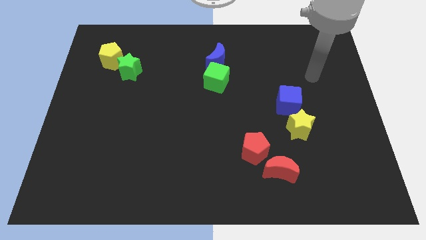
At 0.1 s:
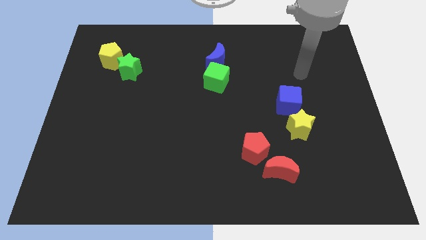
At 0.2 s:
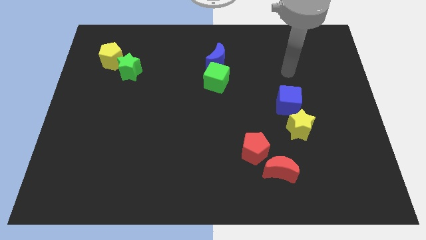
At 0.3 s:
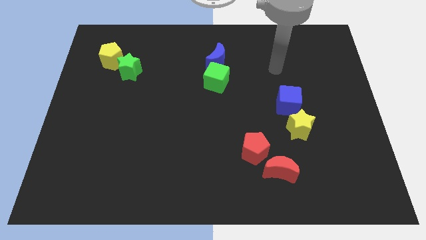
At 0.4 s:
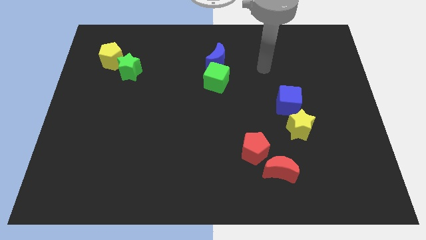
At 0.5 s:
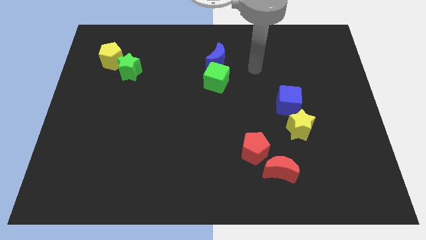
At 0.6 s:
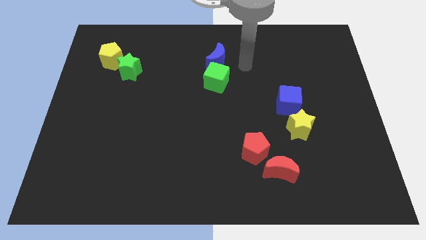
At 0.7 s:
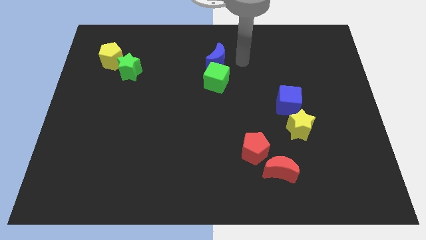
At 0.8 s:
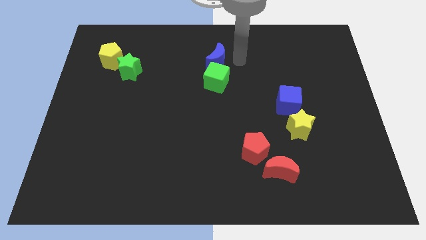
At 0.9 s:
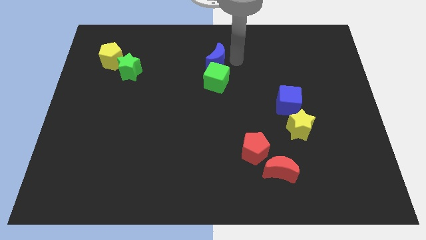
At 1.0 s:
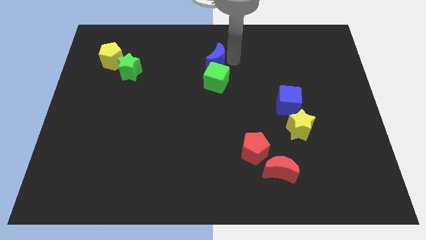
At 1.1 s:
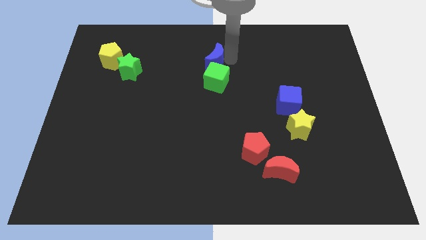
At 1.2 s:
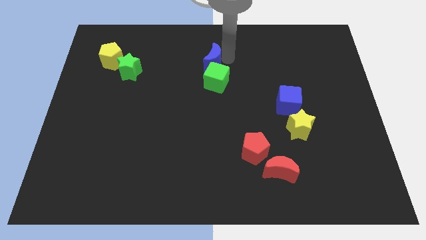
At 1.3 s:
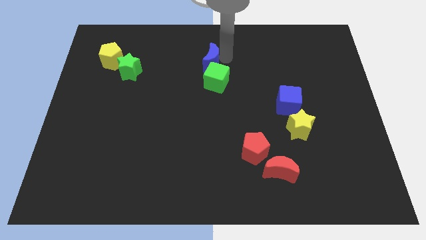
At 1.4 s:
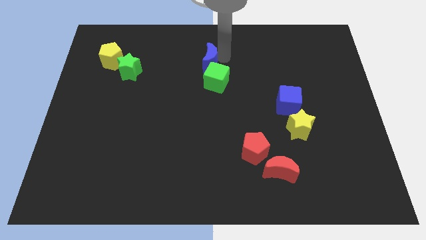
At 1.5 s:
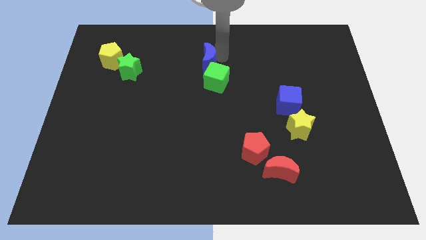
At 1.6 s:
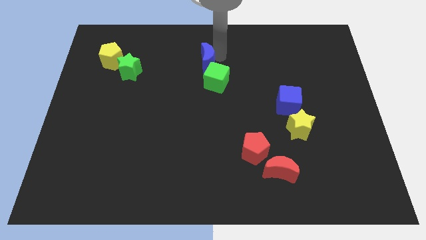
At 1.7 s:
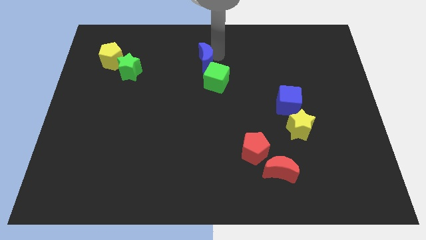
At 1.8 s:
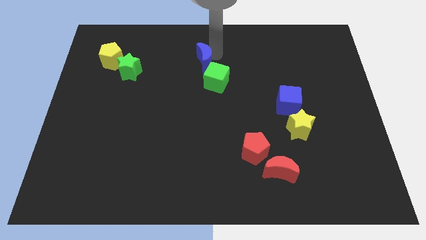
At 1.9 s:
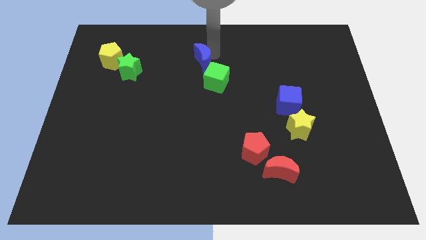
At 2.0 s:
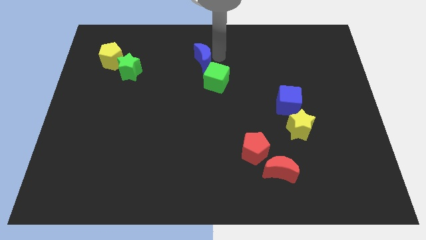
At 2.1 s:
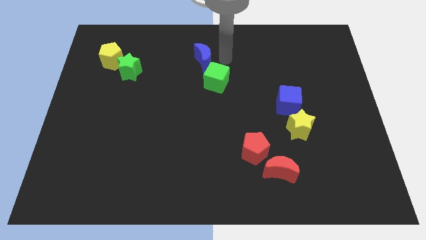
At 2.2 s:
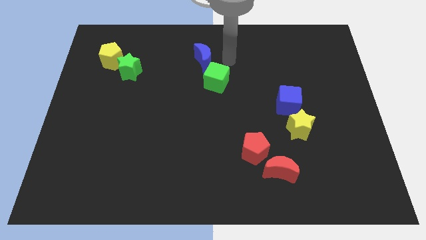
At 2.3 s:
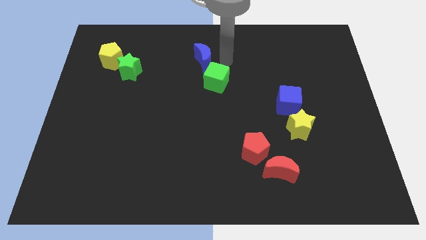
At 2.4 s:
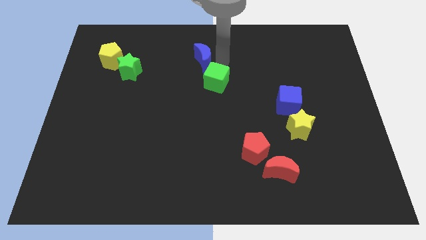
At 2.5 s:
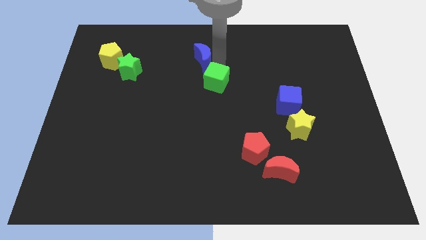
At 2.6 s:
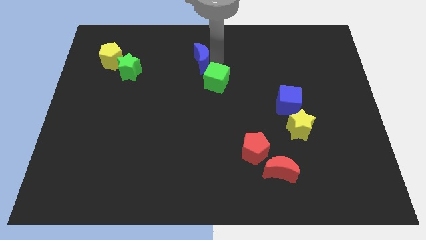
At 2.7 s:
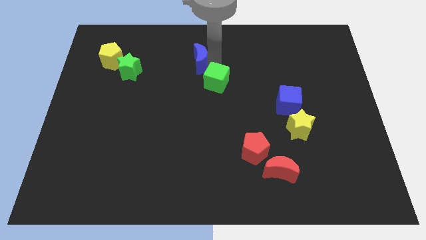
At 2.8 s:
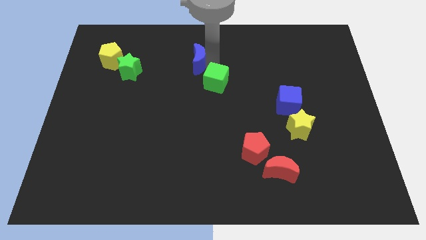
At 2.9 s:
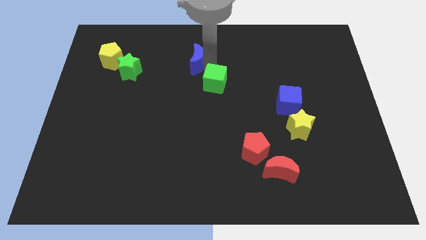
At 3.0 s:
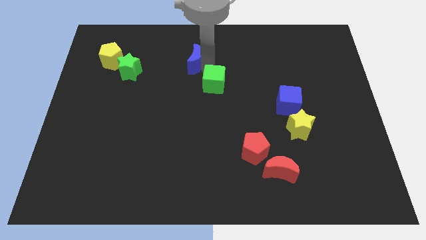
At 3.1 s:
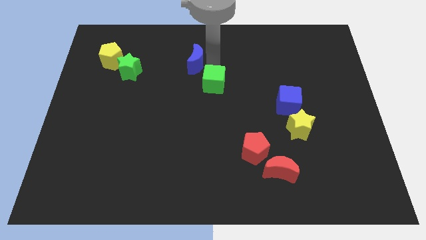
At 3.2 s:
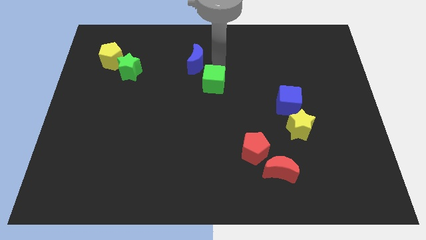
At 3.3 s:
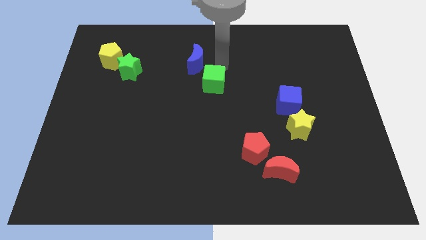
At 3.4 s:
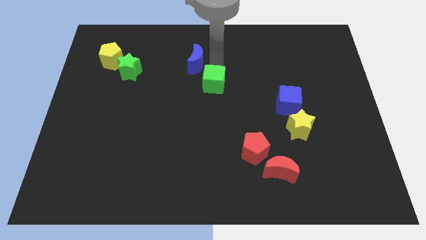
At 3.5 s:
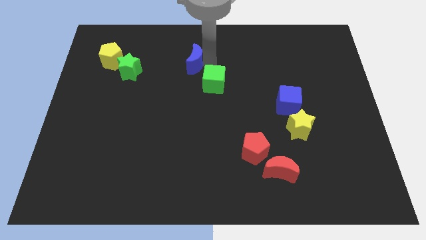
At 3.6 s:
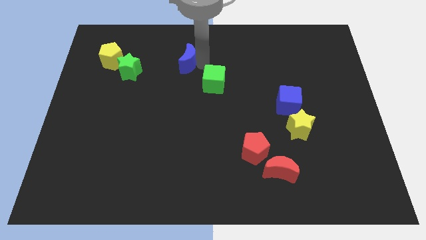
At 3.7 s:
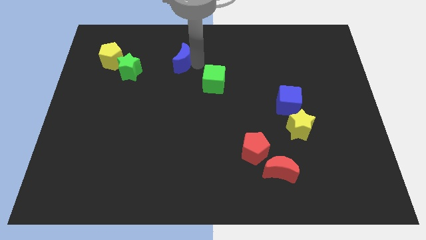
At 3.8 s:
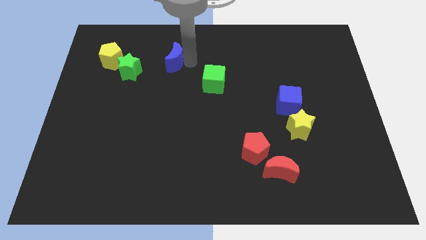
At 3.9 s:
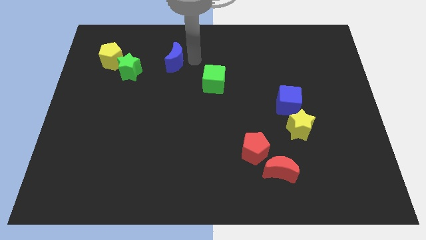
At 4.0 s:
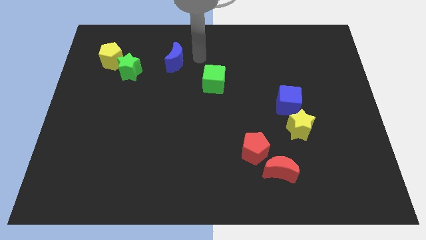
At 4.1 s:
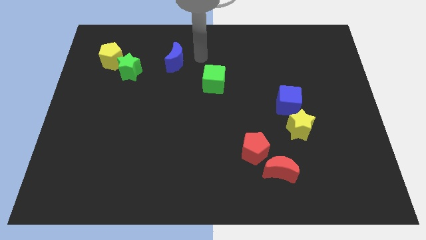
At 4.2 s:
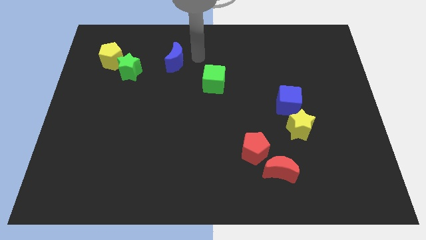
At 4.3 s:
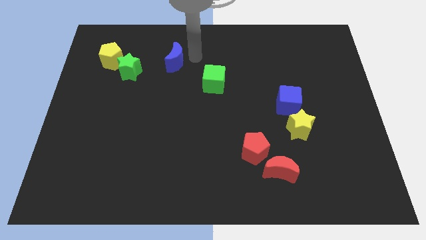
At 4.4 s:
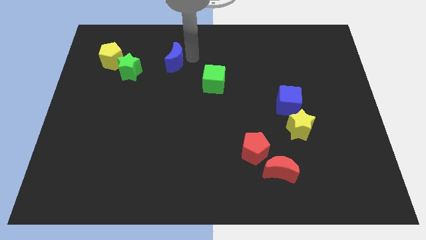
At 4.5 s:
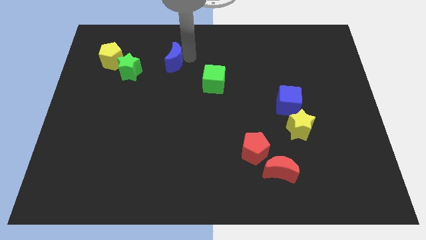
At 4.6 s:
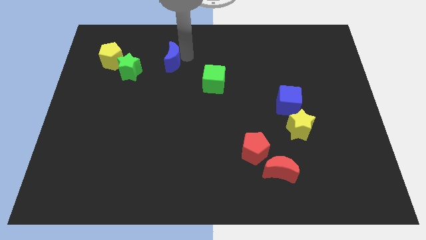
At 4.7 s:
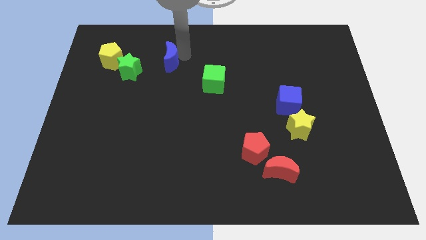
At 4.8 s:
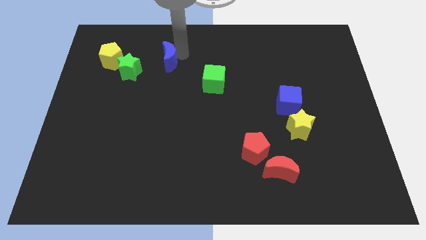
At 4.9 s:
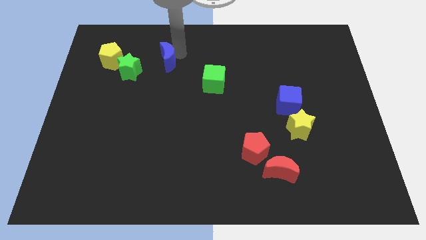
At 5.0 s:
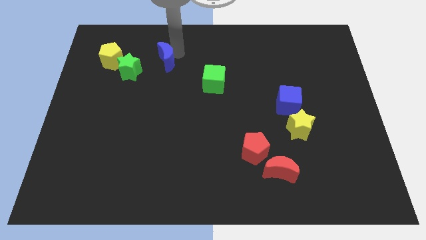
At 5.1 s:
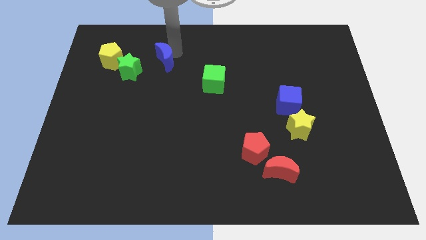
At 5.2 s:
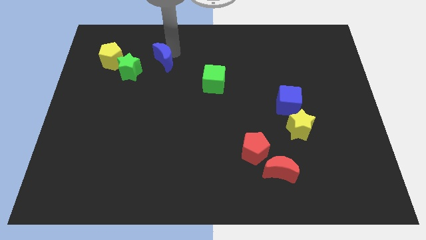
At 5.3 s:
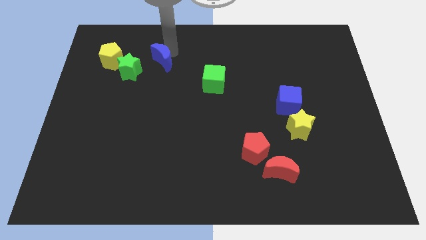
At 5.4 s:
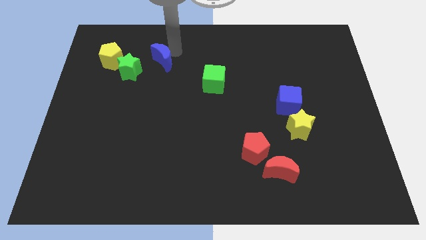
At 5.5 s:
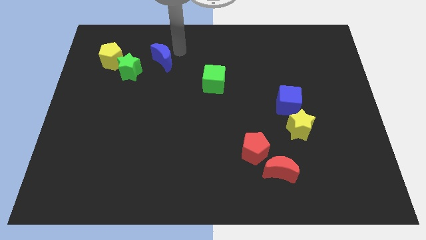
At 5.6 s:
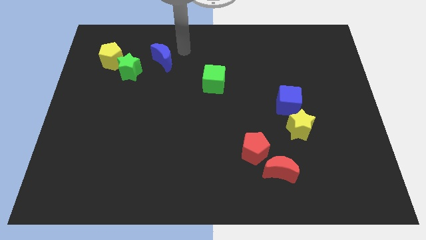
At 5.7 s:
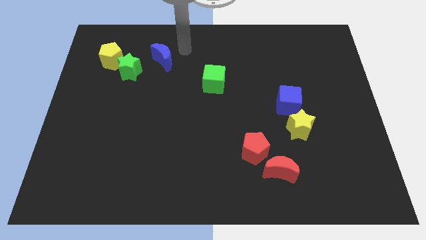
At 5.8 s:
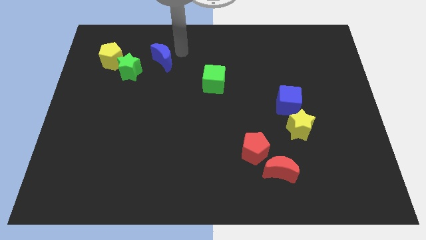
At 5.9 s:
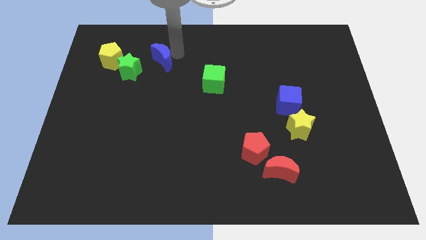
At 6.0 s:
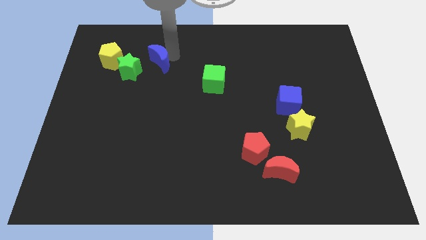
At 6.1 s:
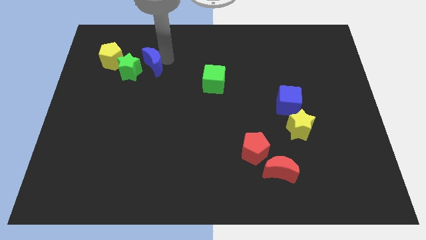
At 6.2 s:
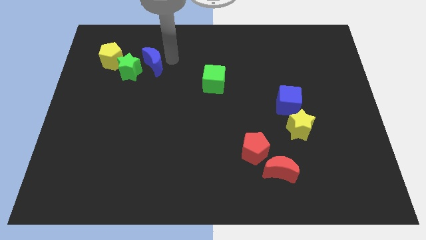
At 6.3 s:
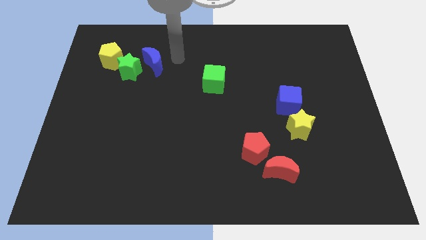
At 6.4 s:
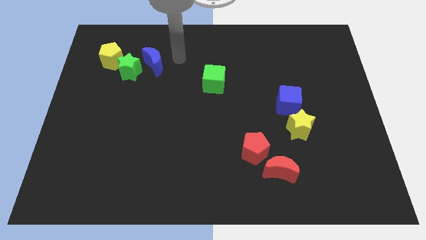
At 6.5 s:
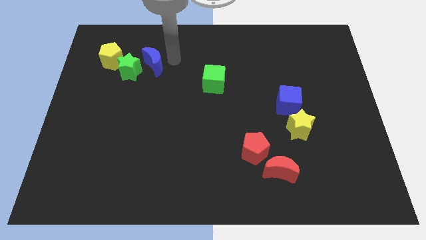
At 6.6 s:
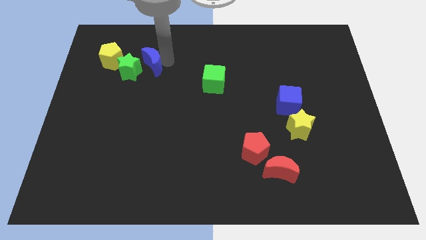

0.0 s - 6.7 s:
move the blue moon towards the green star

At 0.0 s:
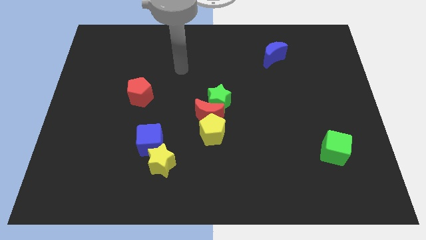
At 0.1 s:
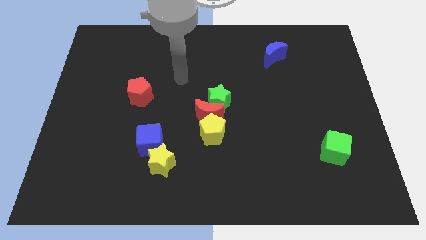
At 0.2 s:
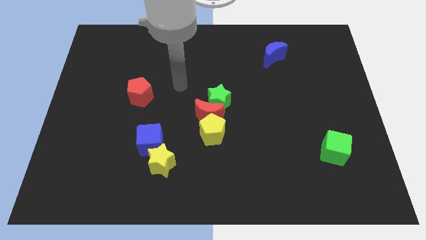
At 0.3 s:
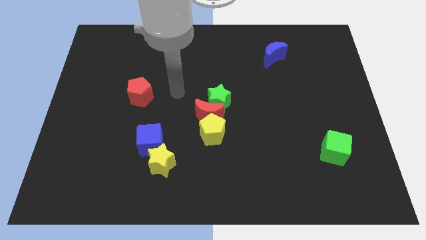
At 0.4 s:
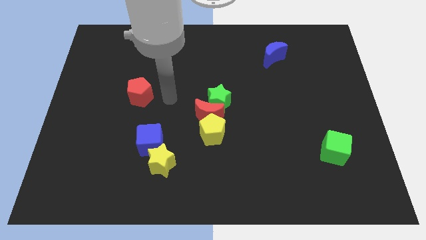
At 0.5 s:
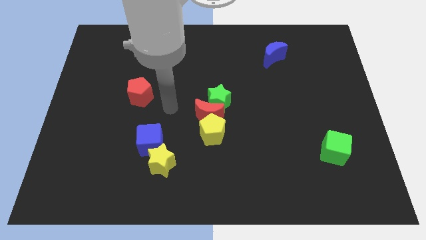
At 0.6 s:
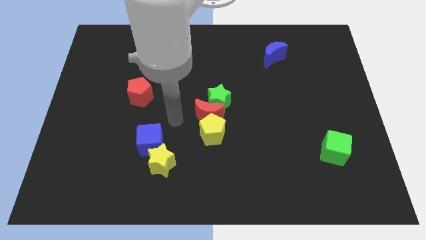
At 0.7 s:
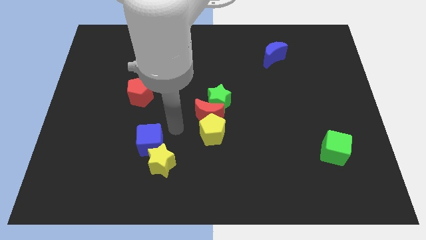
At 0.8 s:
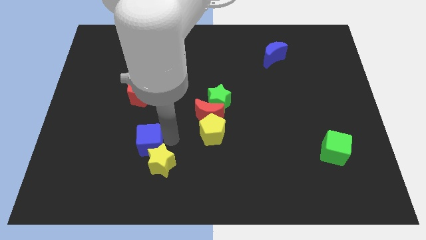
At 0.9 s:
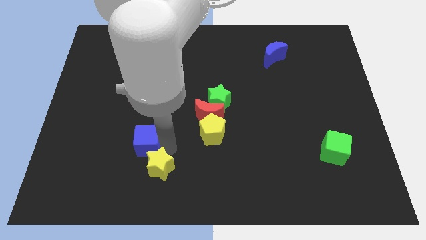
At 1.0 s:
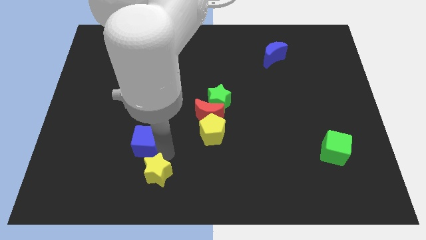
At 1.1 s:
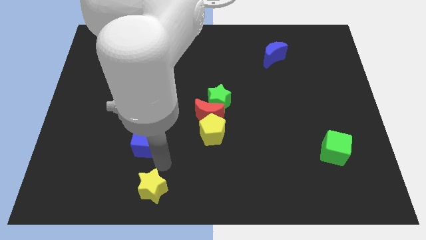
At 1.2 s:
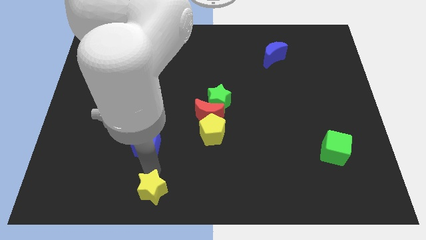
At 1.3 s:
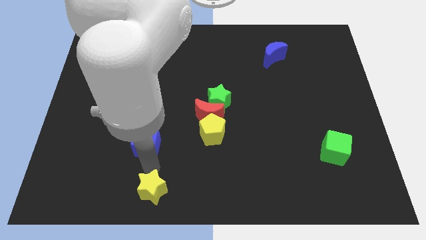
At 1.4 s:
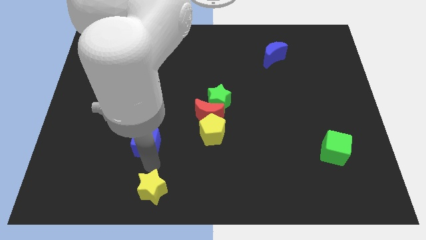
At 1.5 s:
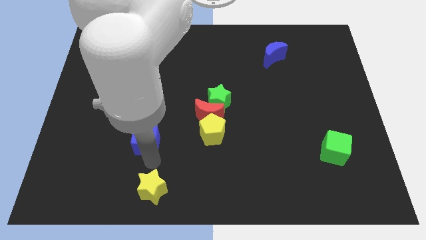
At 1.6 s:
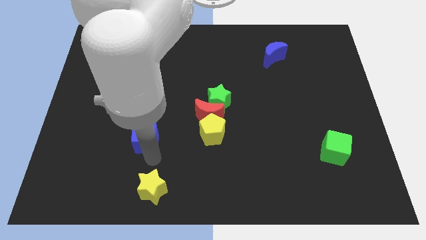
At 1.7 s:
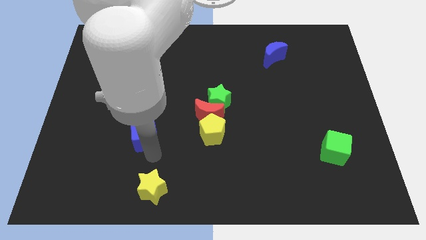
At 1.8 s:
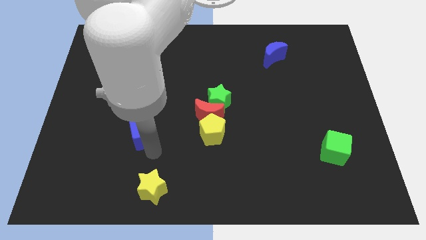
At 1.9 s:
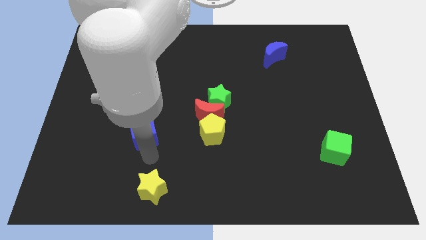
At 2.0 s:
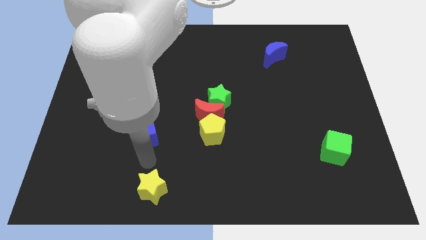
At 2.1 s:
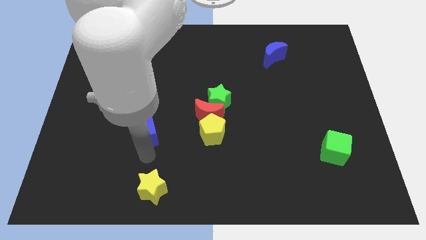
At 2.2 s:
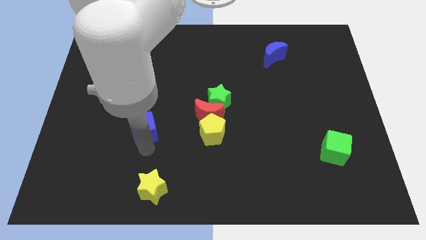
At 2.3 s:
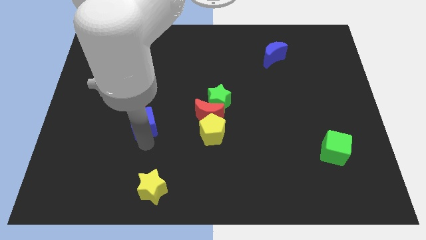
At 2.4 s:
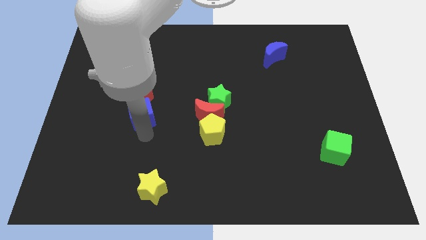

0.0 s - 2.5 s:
put the blue cube close to the red pentagon
